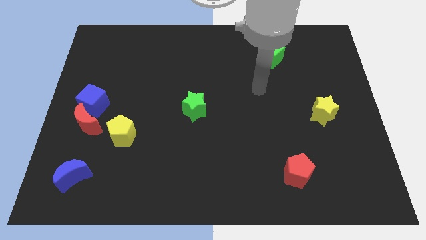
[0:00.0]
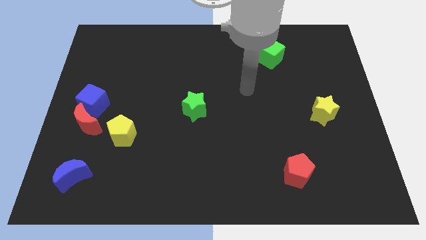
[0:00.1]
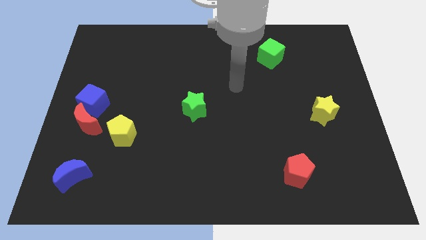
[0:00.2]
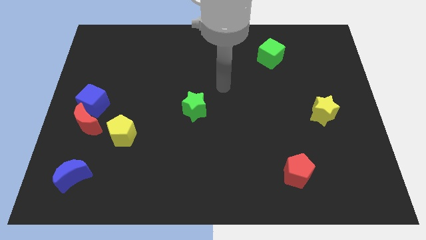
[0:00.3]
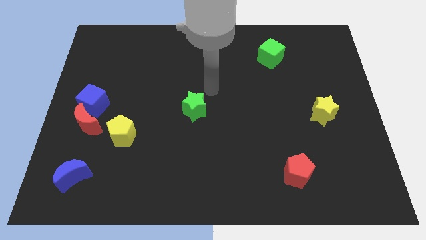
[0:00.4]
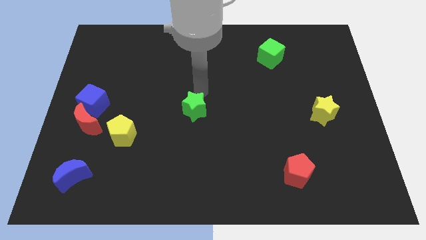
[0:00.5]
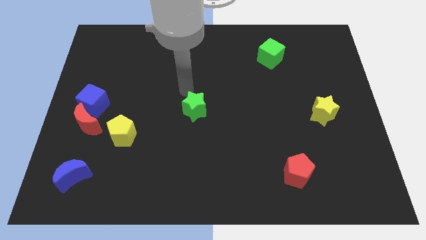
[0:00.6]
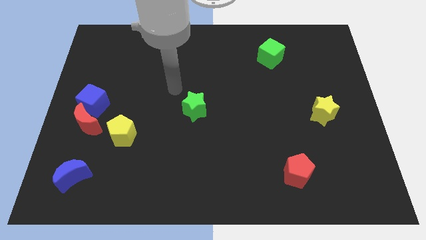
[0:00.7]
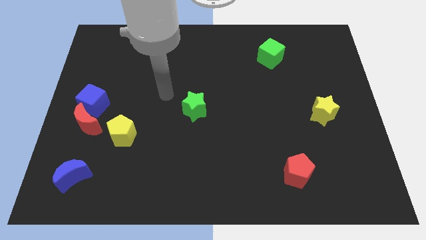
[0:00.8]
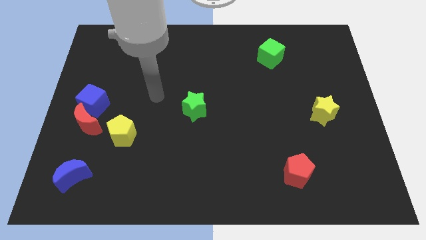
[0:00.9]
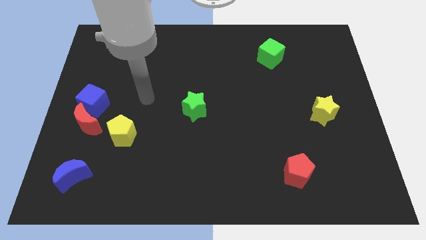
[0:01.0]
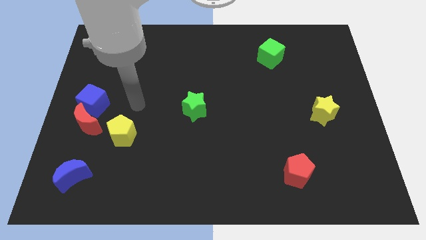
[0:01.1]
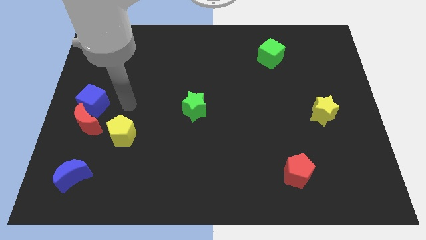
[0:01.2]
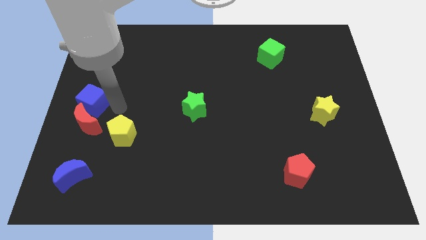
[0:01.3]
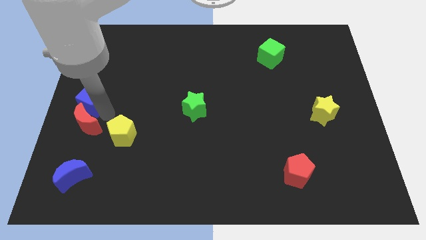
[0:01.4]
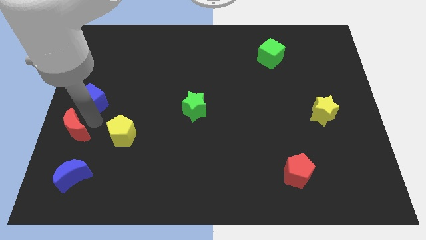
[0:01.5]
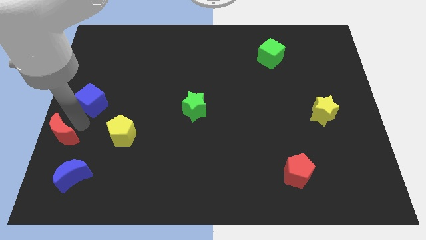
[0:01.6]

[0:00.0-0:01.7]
pull the blue cube apart from the red moon

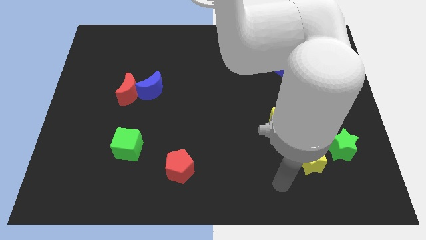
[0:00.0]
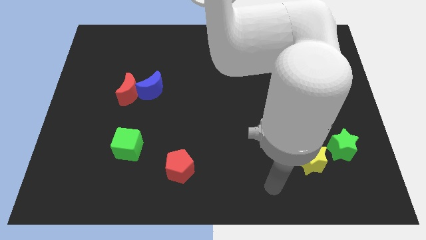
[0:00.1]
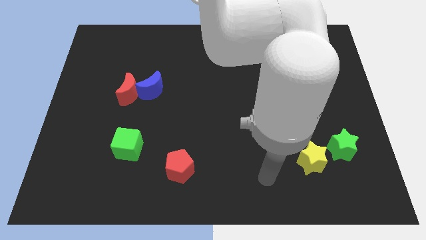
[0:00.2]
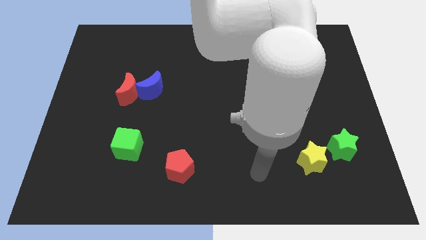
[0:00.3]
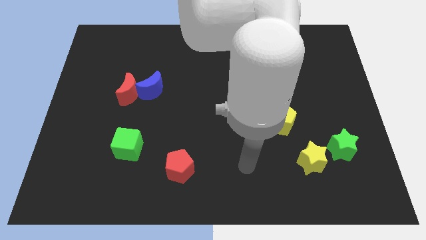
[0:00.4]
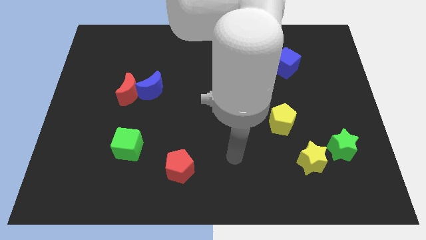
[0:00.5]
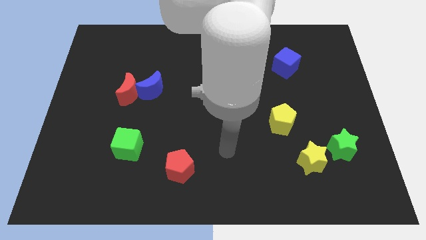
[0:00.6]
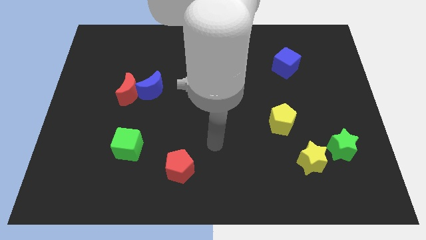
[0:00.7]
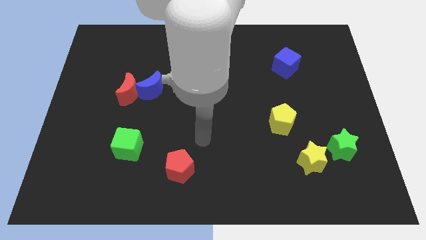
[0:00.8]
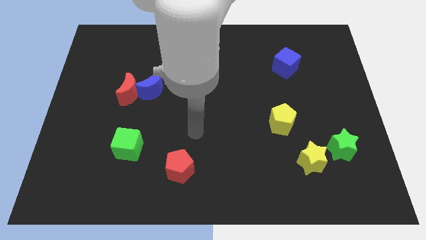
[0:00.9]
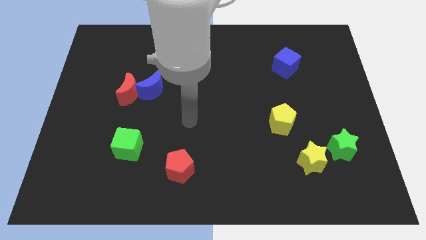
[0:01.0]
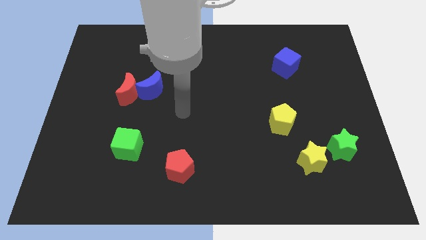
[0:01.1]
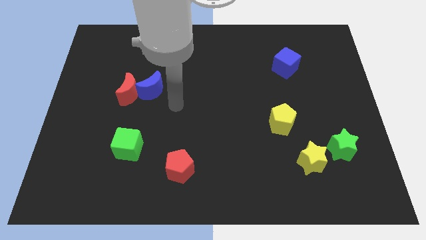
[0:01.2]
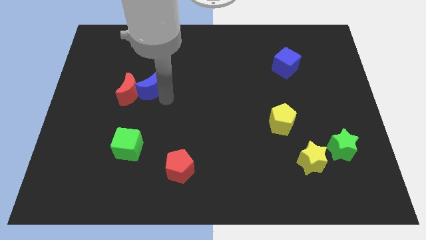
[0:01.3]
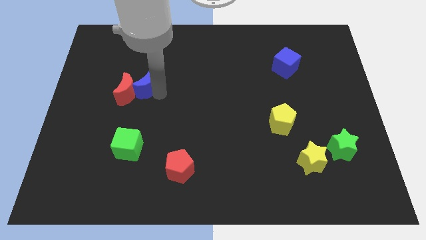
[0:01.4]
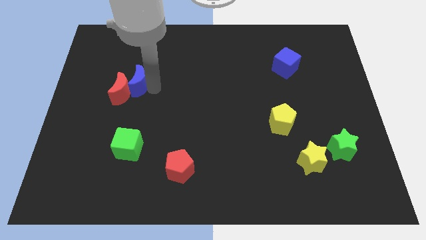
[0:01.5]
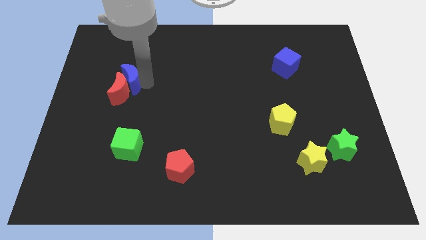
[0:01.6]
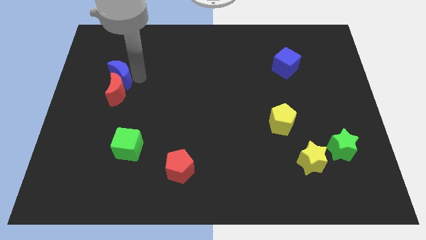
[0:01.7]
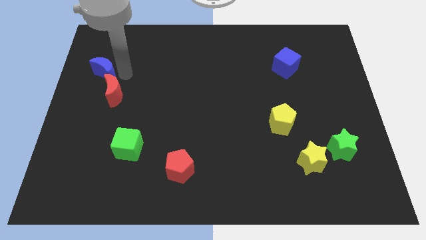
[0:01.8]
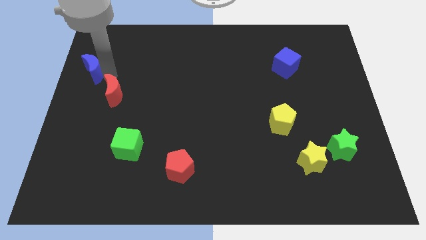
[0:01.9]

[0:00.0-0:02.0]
move the red moon away from the blue moon

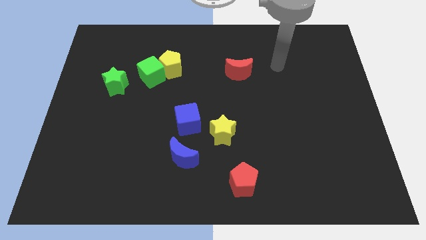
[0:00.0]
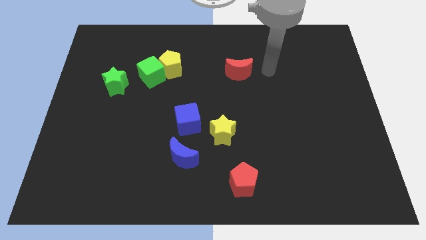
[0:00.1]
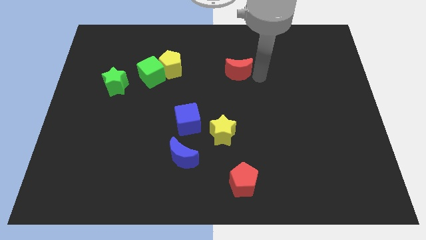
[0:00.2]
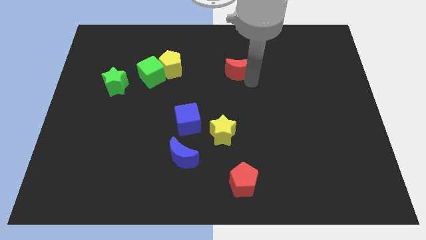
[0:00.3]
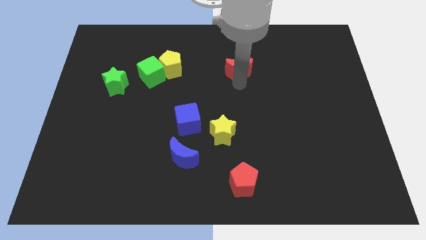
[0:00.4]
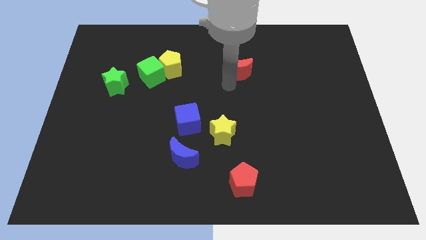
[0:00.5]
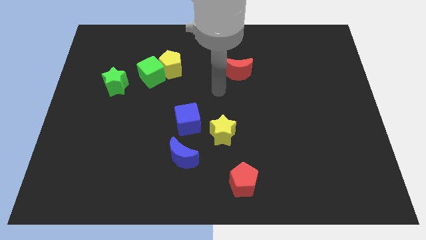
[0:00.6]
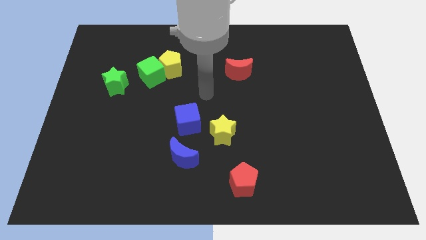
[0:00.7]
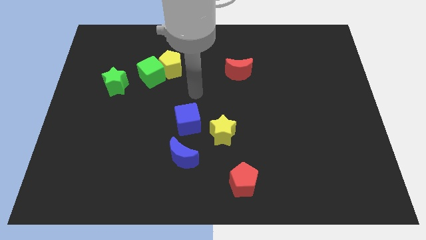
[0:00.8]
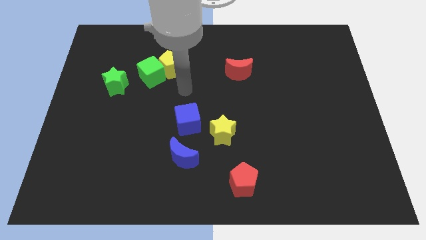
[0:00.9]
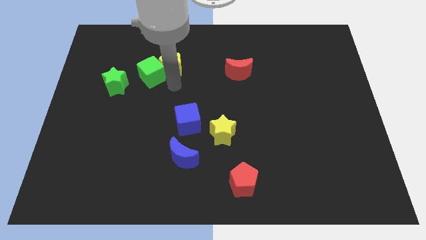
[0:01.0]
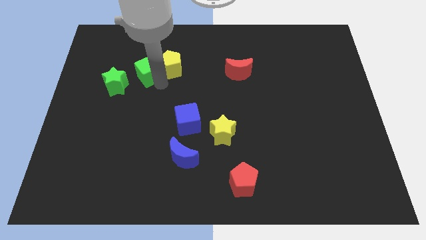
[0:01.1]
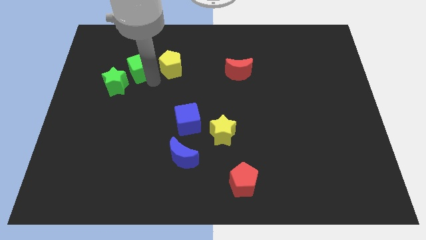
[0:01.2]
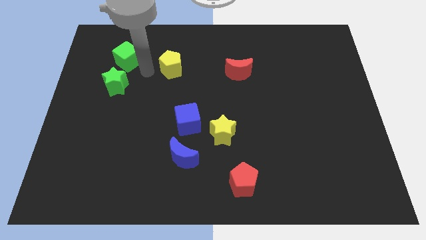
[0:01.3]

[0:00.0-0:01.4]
separate the yellow pentagon from the green cube

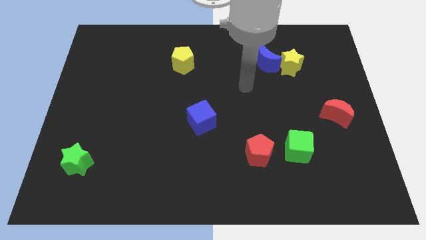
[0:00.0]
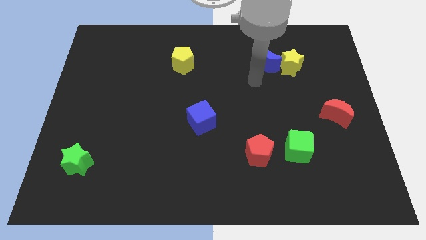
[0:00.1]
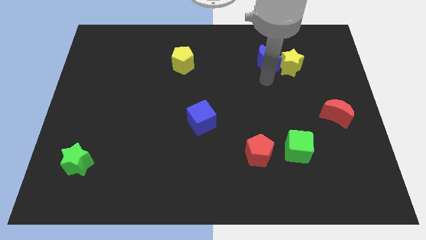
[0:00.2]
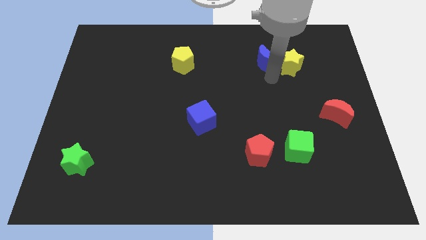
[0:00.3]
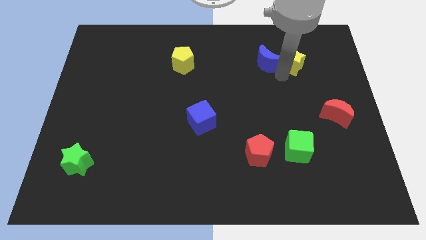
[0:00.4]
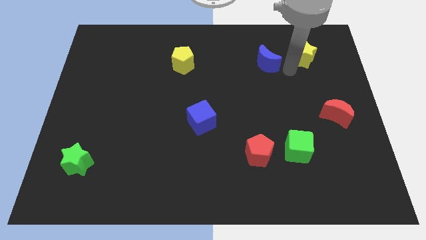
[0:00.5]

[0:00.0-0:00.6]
pull the blue moon apart from the yellow star

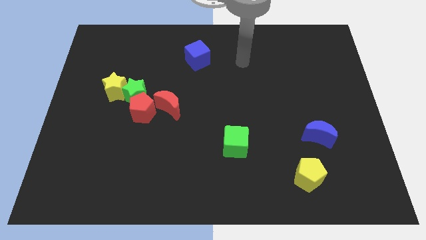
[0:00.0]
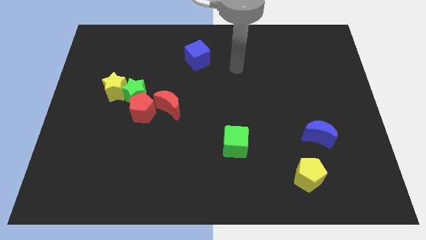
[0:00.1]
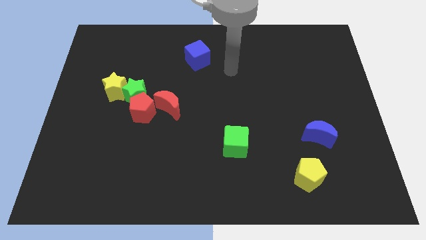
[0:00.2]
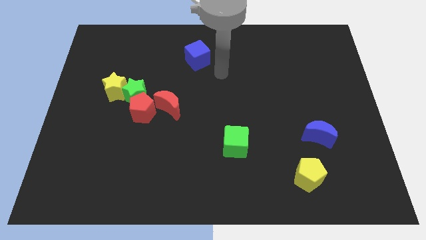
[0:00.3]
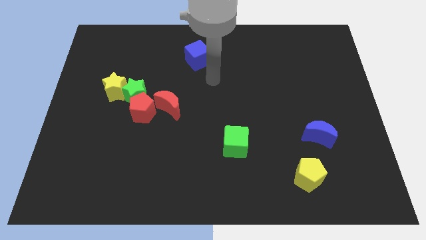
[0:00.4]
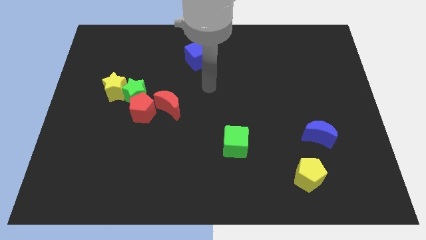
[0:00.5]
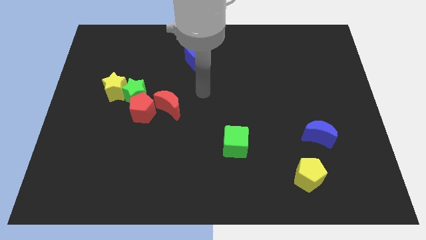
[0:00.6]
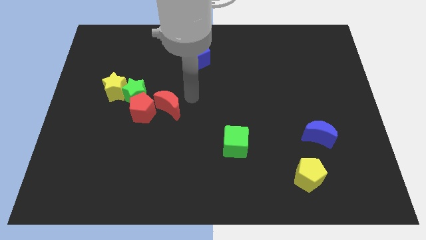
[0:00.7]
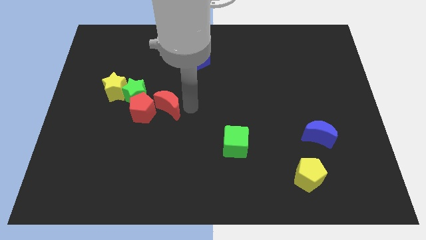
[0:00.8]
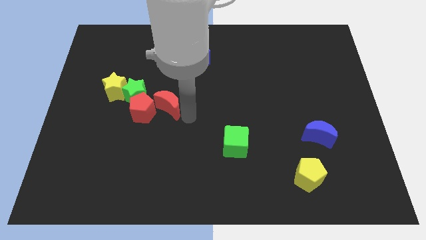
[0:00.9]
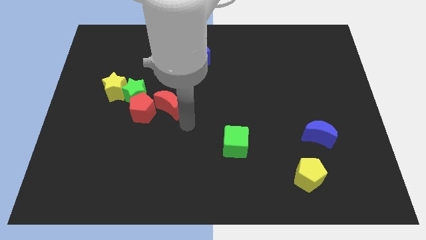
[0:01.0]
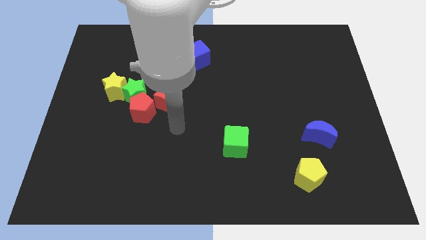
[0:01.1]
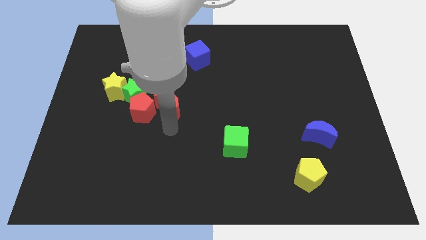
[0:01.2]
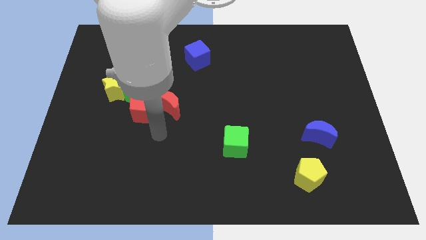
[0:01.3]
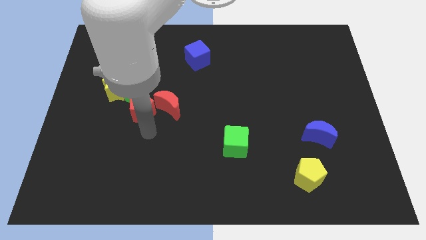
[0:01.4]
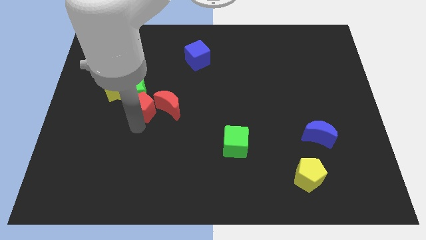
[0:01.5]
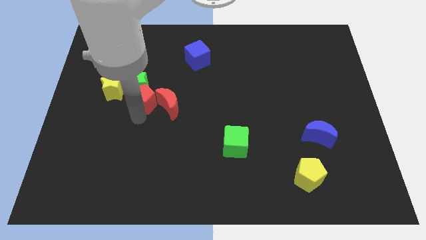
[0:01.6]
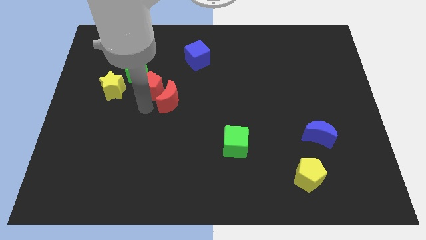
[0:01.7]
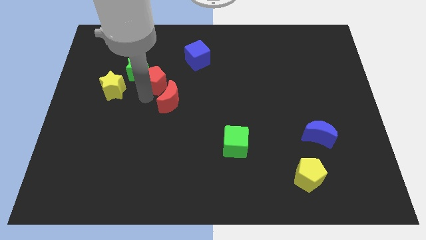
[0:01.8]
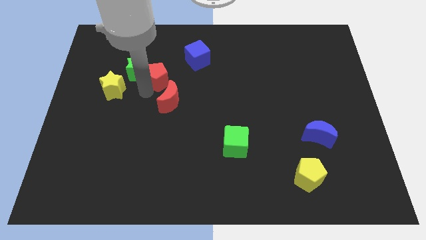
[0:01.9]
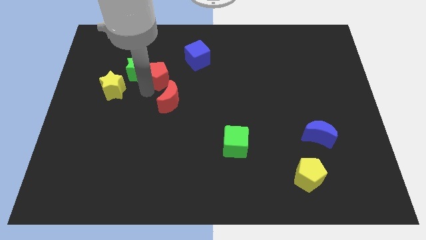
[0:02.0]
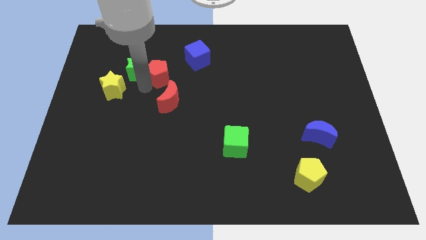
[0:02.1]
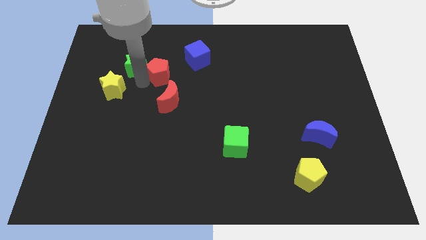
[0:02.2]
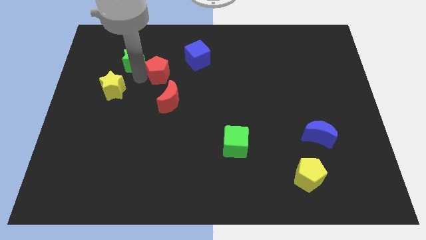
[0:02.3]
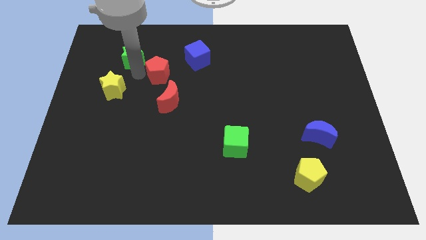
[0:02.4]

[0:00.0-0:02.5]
move the green star away from the clump

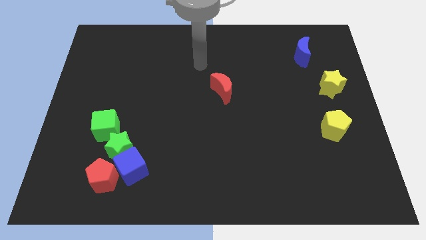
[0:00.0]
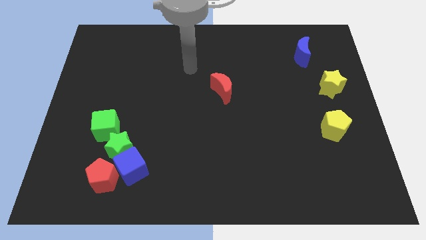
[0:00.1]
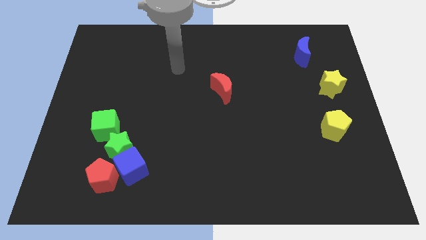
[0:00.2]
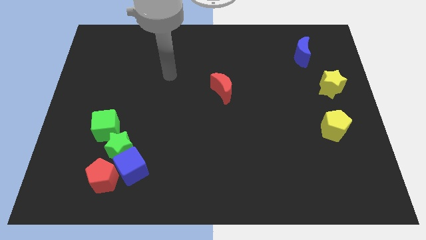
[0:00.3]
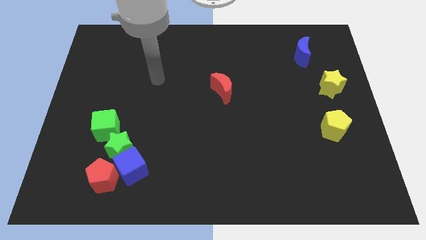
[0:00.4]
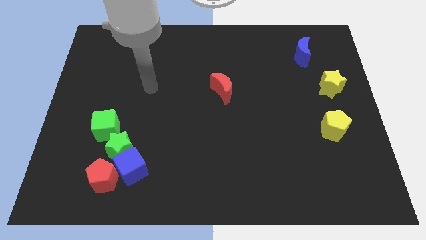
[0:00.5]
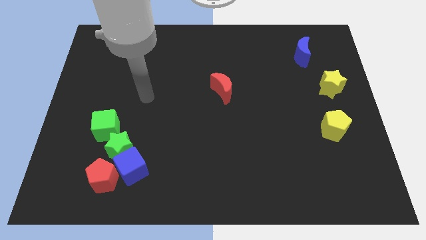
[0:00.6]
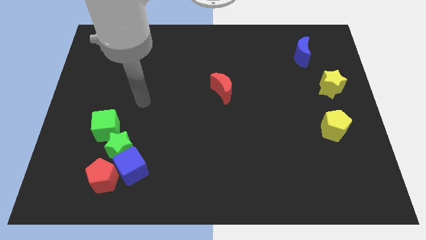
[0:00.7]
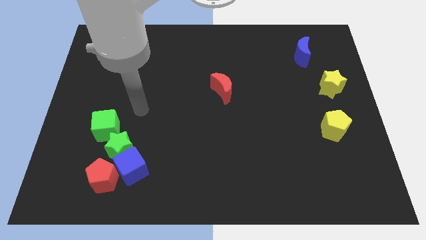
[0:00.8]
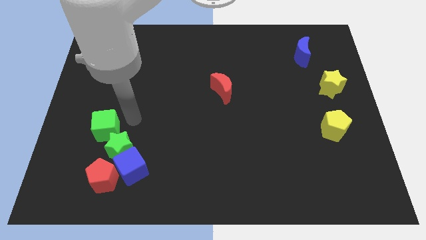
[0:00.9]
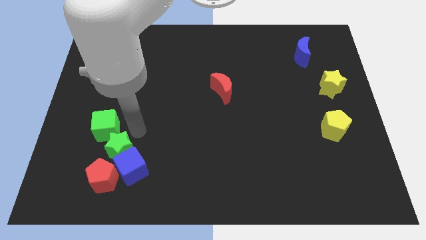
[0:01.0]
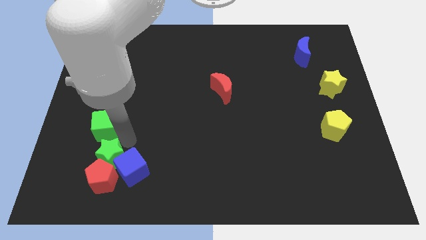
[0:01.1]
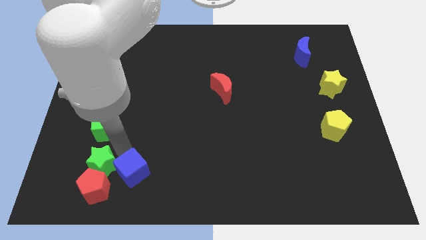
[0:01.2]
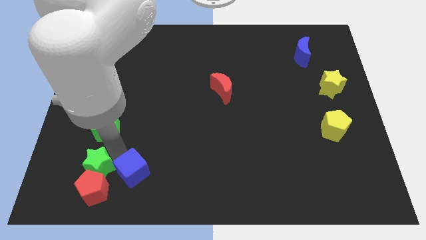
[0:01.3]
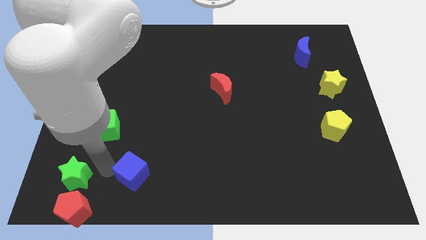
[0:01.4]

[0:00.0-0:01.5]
pull the blue cube apart from the green star and red pentagon
